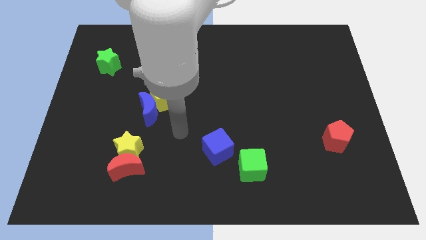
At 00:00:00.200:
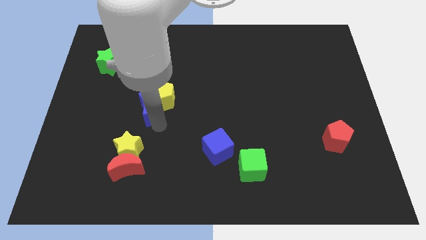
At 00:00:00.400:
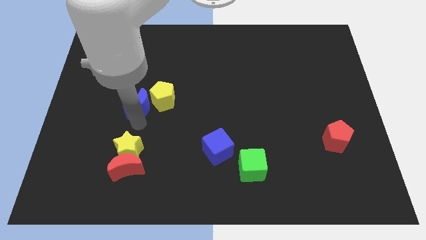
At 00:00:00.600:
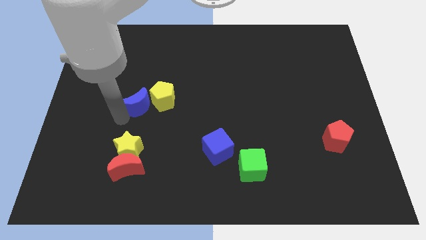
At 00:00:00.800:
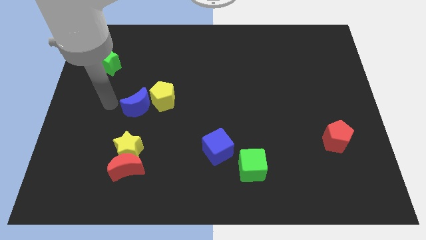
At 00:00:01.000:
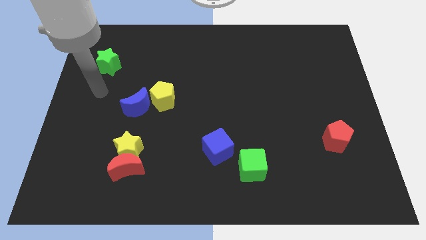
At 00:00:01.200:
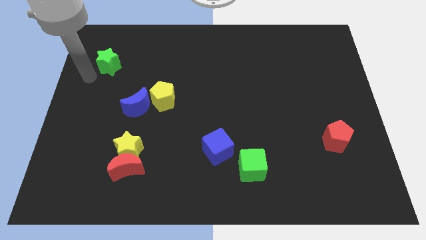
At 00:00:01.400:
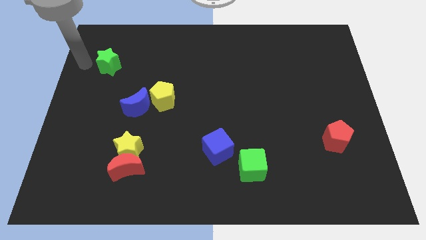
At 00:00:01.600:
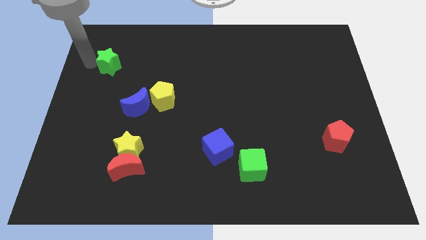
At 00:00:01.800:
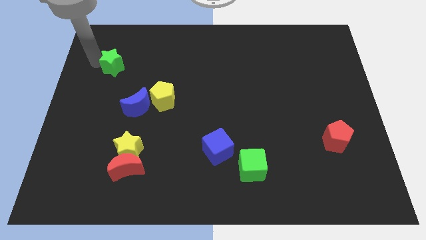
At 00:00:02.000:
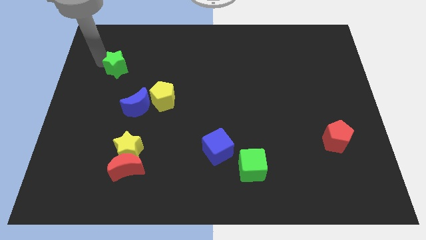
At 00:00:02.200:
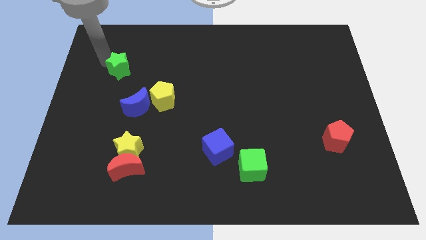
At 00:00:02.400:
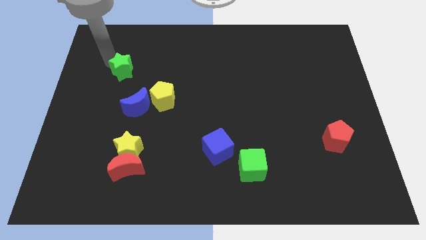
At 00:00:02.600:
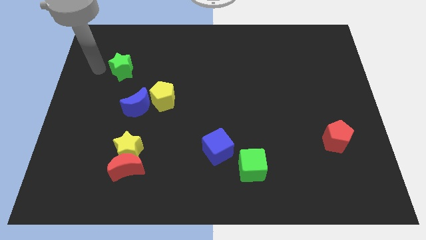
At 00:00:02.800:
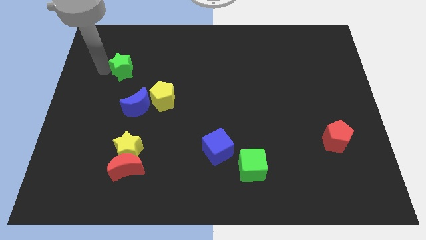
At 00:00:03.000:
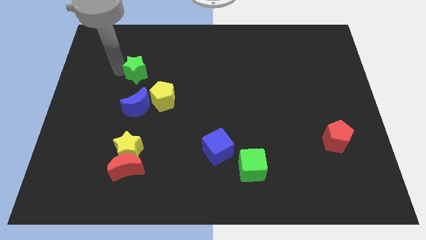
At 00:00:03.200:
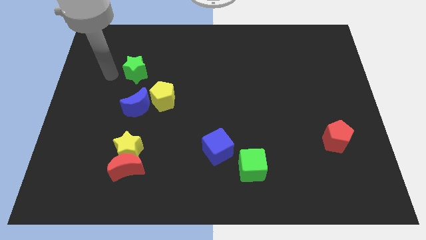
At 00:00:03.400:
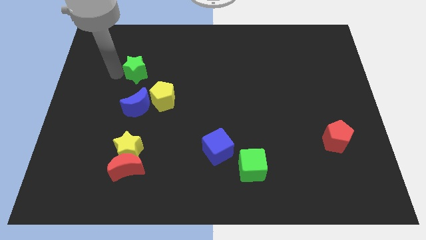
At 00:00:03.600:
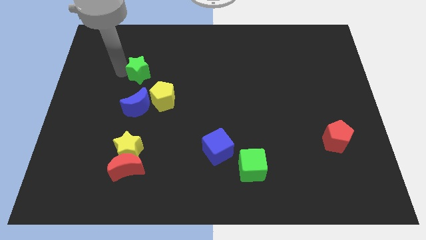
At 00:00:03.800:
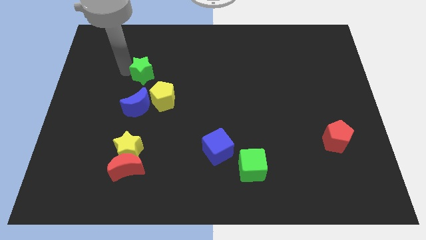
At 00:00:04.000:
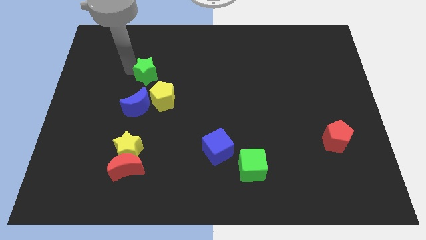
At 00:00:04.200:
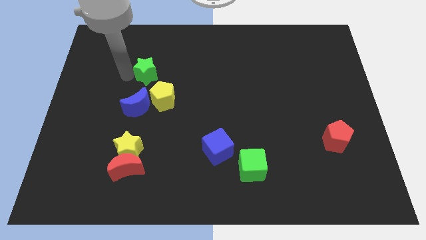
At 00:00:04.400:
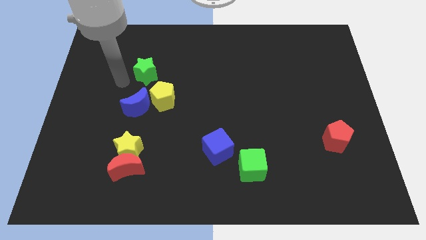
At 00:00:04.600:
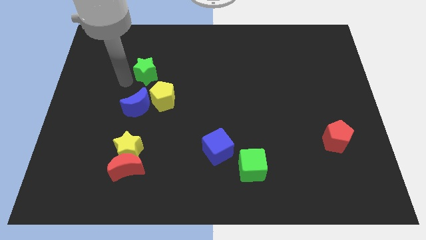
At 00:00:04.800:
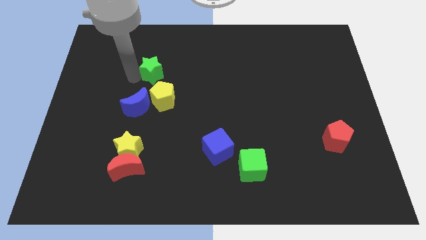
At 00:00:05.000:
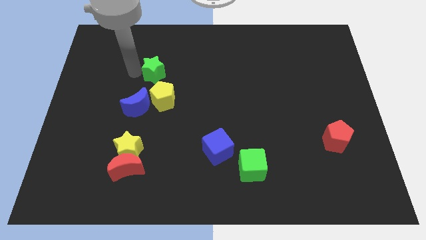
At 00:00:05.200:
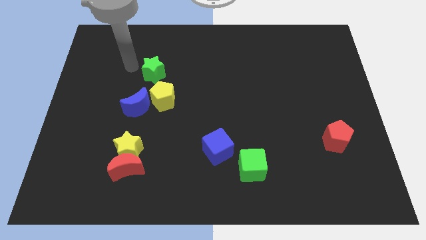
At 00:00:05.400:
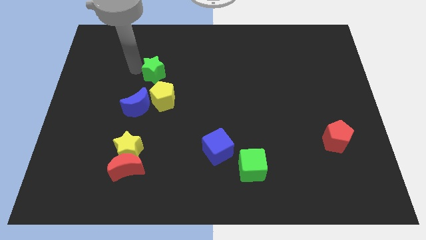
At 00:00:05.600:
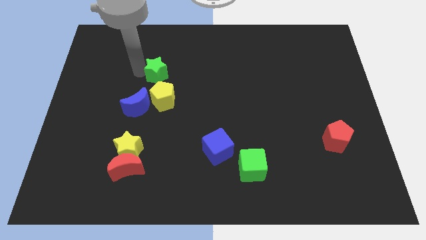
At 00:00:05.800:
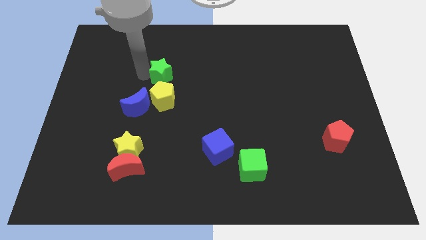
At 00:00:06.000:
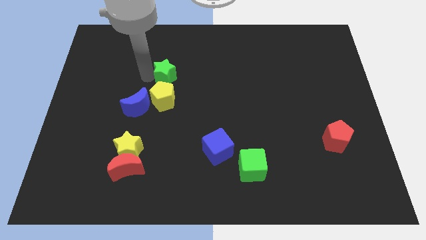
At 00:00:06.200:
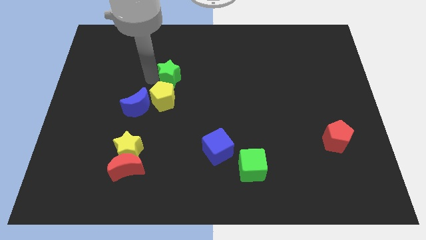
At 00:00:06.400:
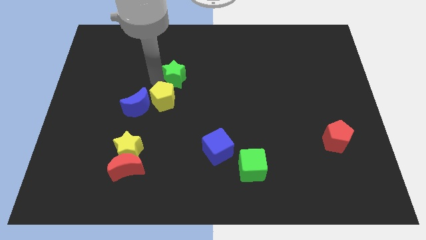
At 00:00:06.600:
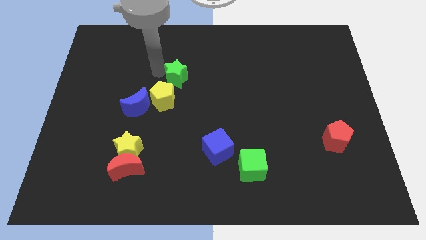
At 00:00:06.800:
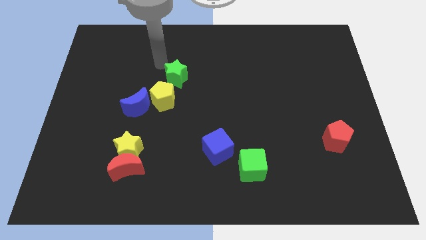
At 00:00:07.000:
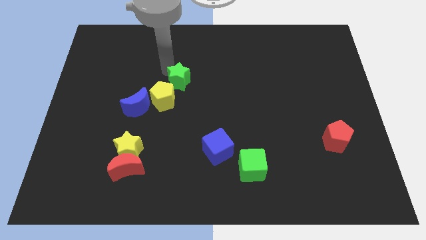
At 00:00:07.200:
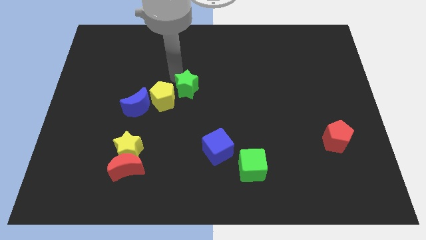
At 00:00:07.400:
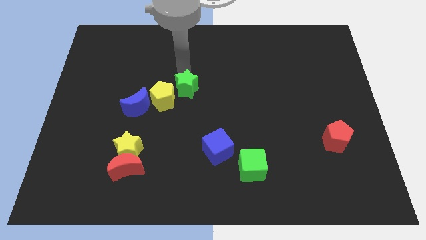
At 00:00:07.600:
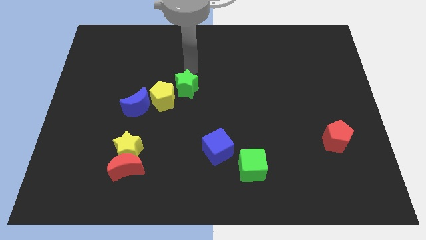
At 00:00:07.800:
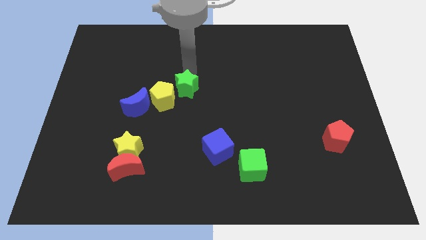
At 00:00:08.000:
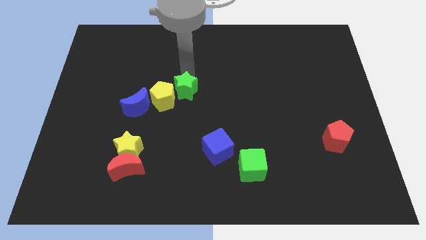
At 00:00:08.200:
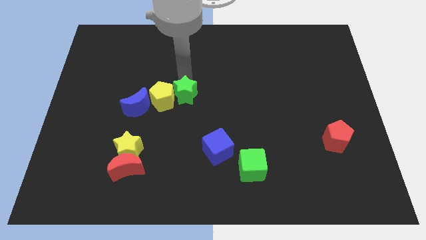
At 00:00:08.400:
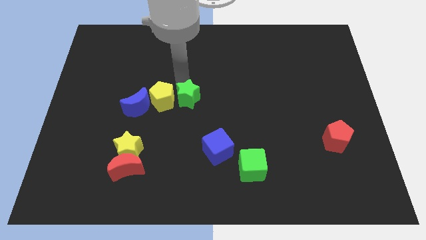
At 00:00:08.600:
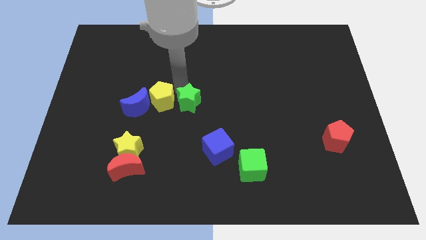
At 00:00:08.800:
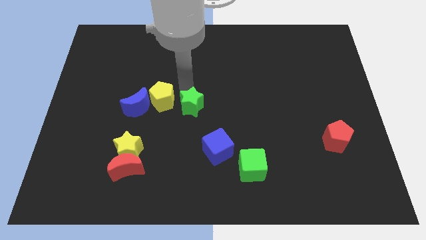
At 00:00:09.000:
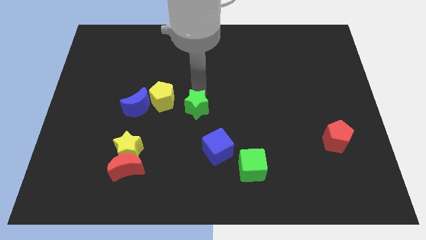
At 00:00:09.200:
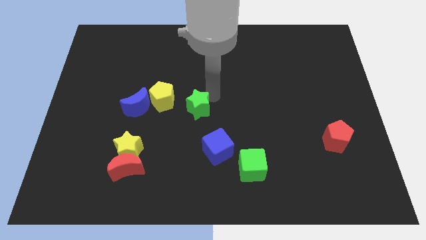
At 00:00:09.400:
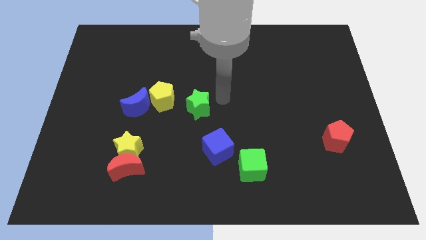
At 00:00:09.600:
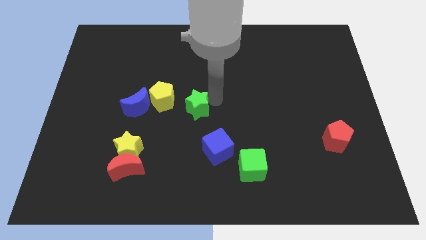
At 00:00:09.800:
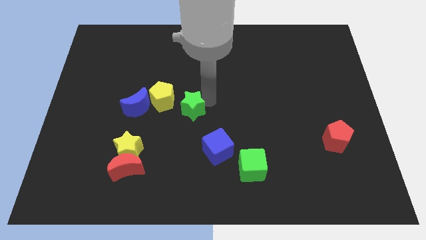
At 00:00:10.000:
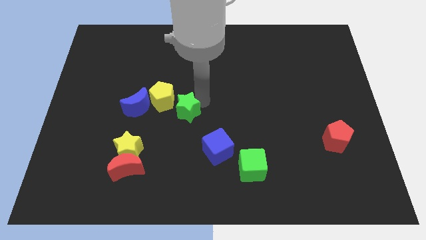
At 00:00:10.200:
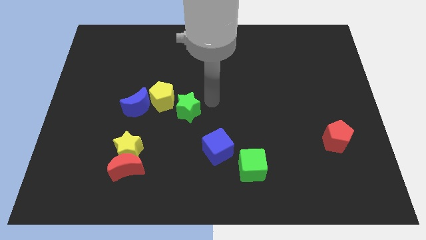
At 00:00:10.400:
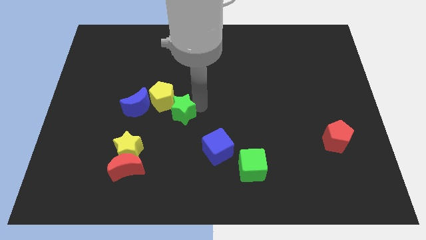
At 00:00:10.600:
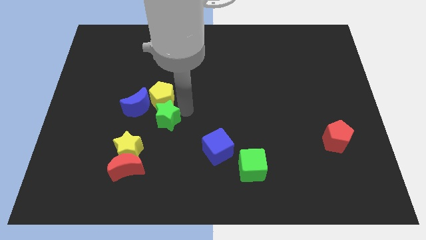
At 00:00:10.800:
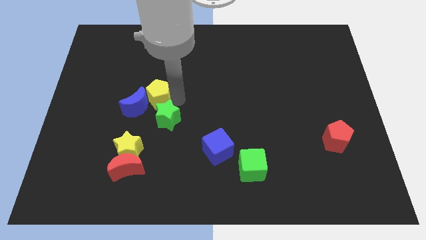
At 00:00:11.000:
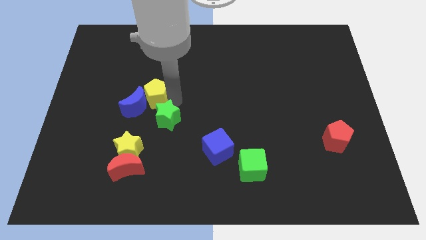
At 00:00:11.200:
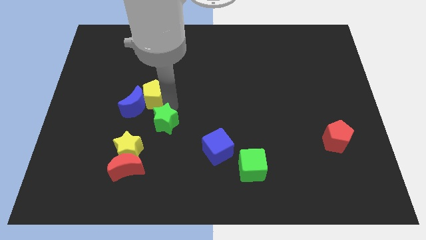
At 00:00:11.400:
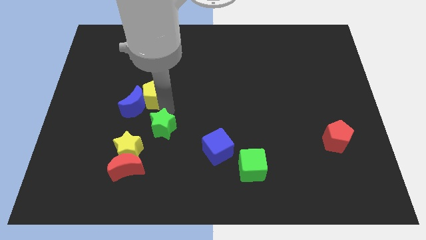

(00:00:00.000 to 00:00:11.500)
put the green star to the top right of the red moon

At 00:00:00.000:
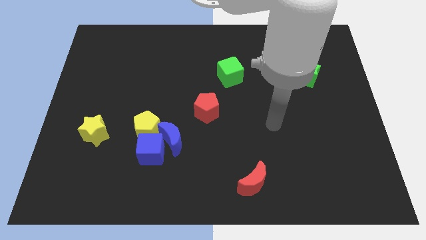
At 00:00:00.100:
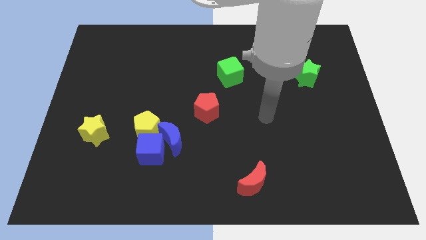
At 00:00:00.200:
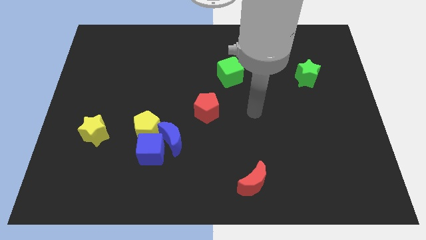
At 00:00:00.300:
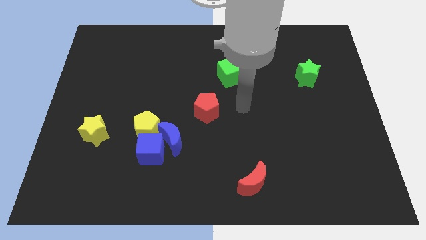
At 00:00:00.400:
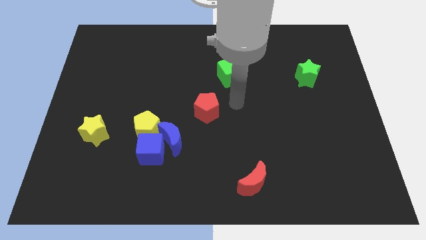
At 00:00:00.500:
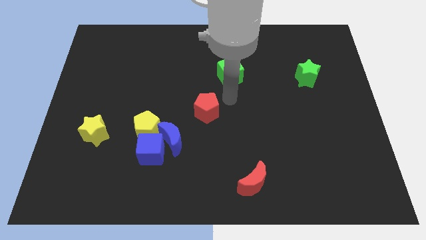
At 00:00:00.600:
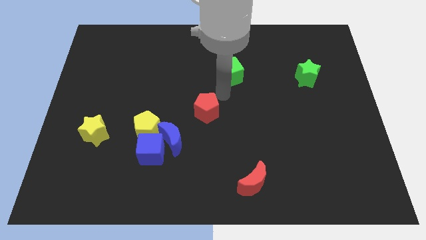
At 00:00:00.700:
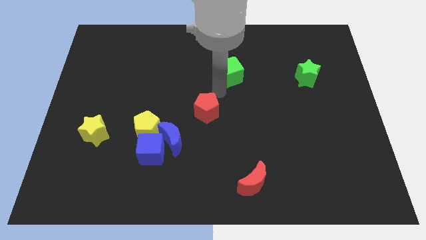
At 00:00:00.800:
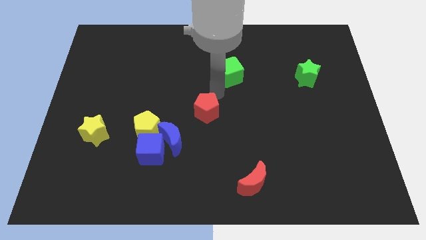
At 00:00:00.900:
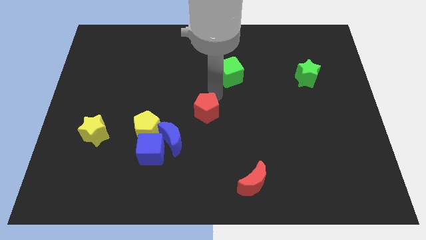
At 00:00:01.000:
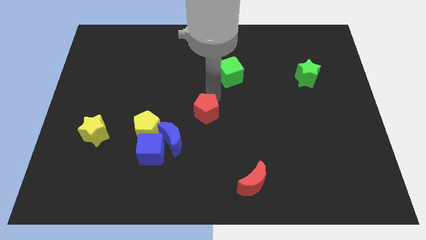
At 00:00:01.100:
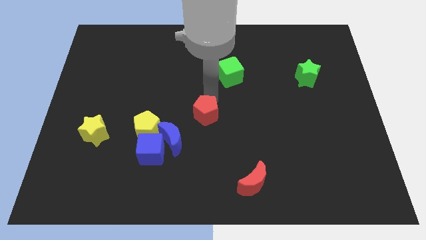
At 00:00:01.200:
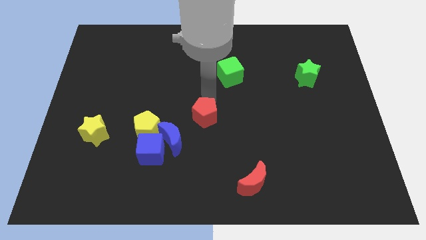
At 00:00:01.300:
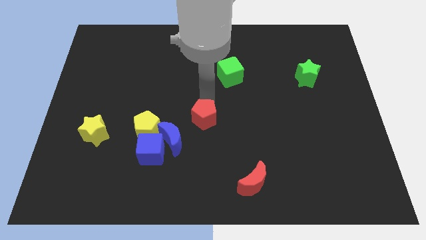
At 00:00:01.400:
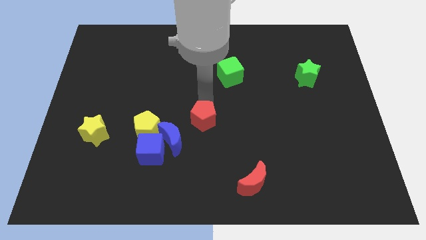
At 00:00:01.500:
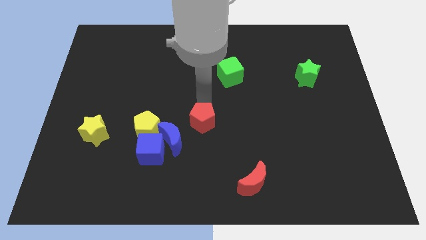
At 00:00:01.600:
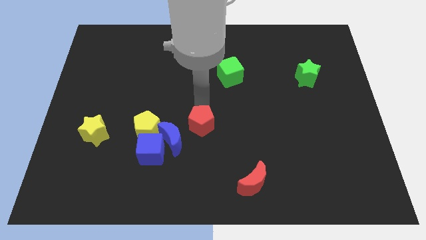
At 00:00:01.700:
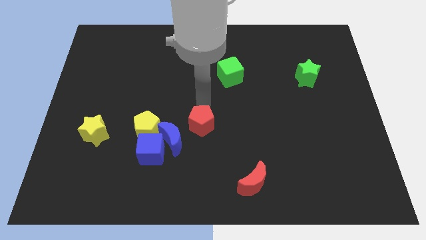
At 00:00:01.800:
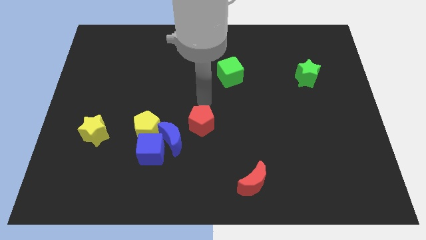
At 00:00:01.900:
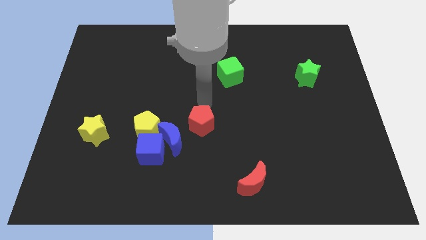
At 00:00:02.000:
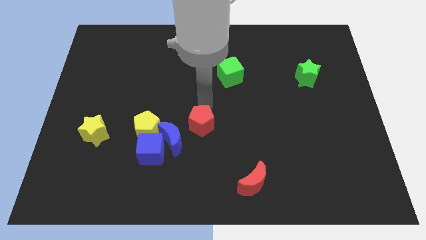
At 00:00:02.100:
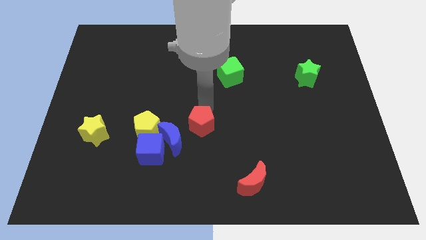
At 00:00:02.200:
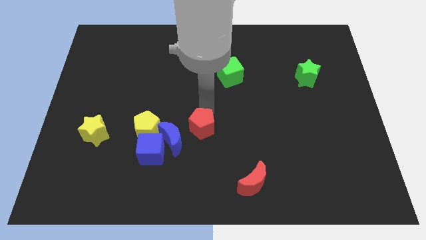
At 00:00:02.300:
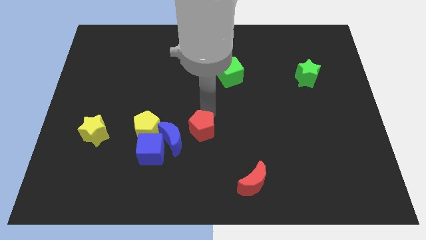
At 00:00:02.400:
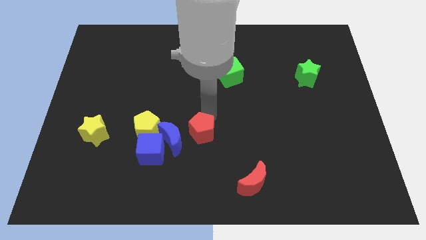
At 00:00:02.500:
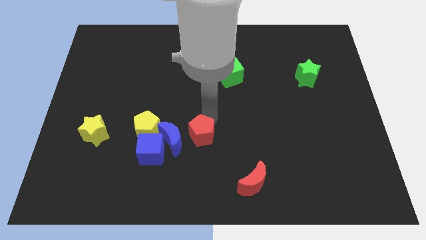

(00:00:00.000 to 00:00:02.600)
slide the red pentagon to the right of the blue cube
